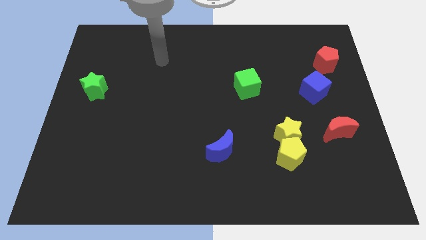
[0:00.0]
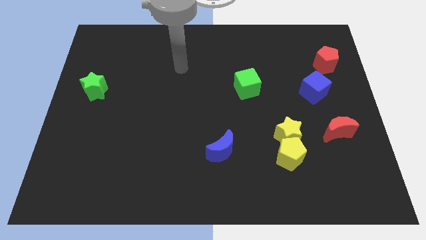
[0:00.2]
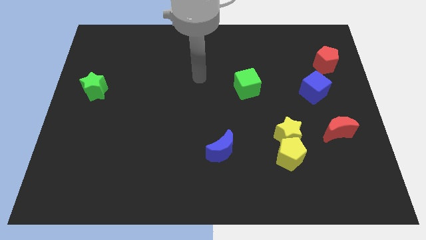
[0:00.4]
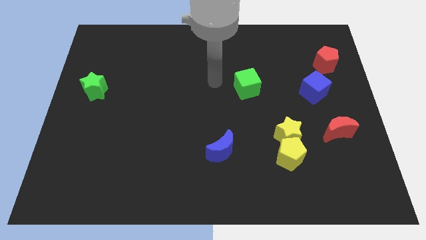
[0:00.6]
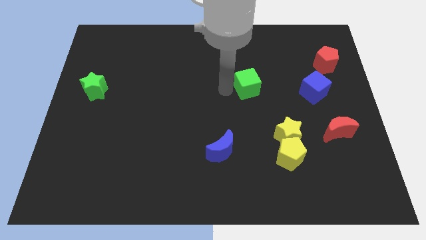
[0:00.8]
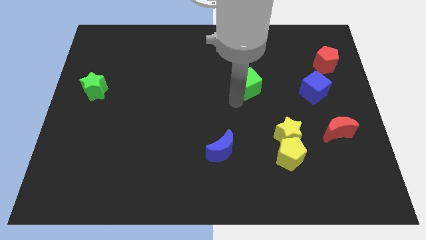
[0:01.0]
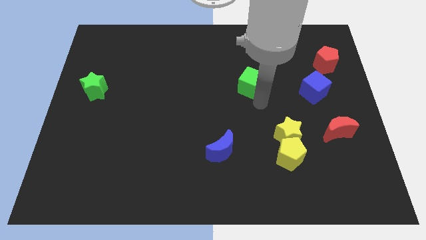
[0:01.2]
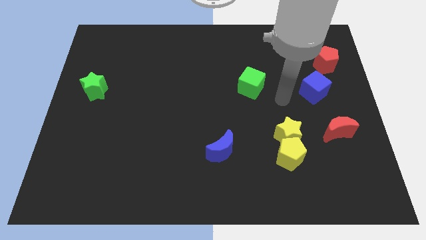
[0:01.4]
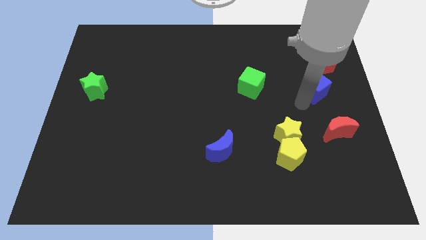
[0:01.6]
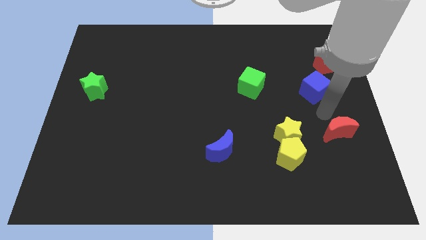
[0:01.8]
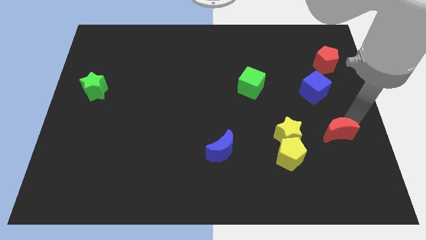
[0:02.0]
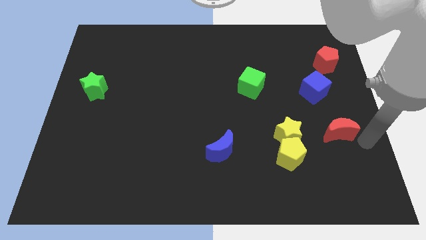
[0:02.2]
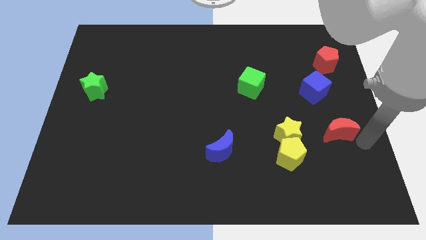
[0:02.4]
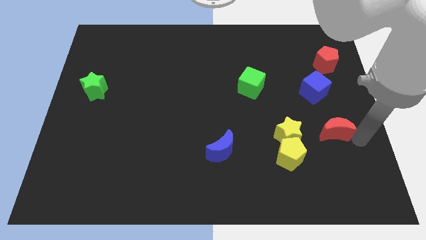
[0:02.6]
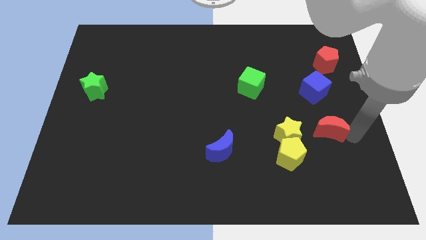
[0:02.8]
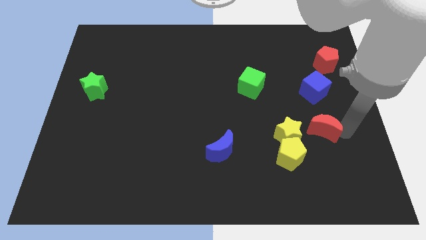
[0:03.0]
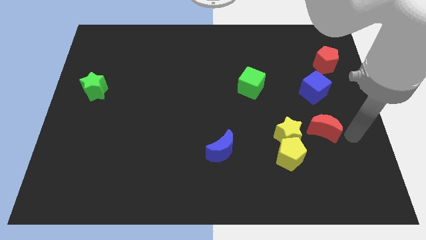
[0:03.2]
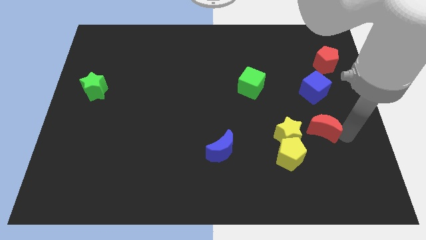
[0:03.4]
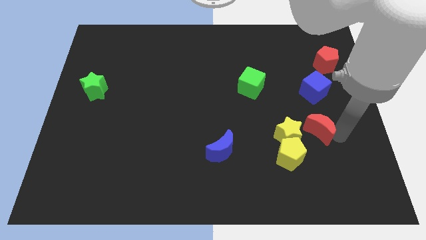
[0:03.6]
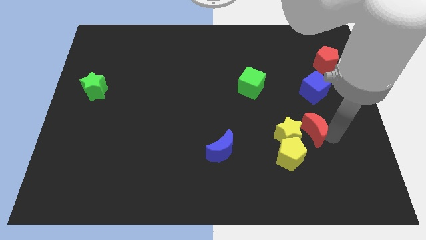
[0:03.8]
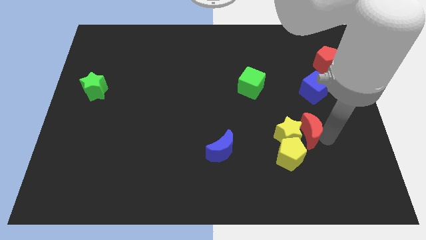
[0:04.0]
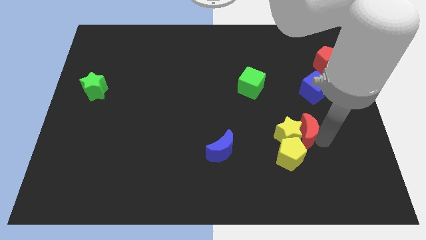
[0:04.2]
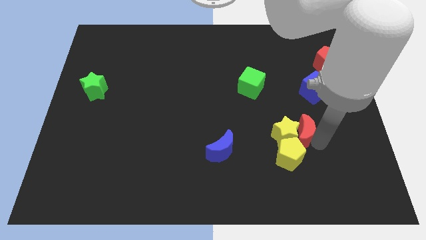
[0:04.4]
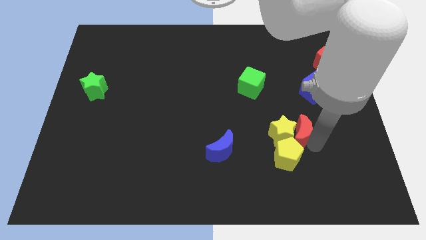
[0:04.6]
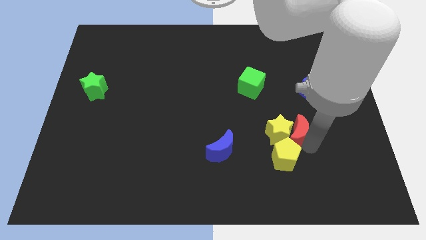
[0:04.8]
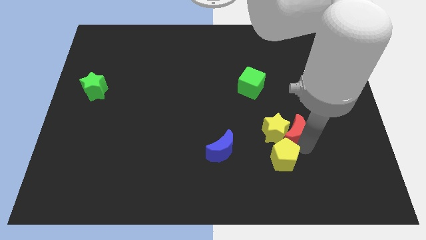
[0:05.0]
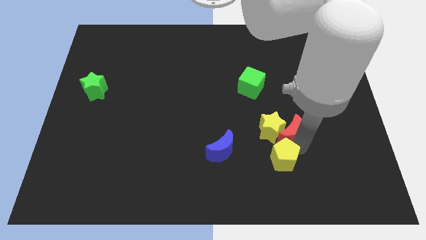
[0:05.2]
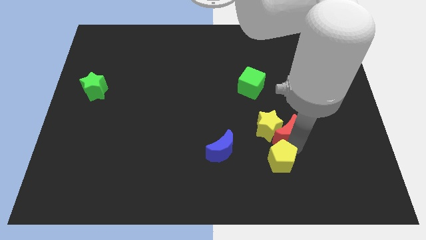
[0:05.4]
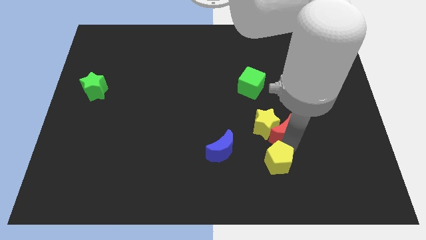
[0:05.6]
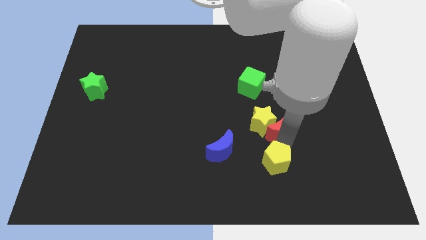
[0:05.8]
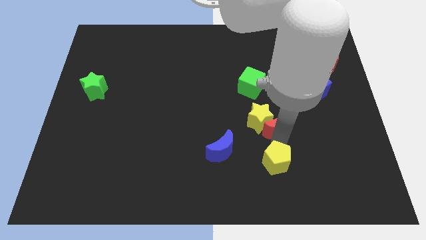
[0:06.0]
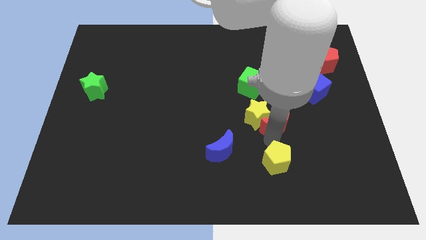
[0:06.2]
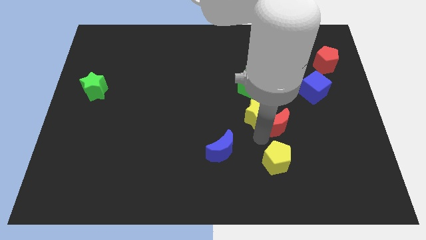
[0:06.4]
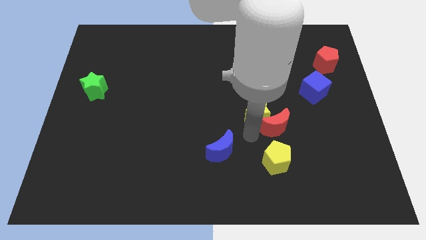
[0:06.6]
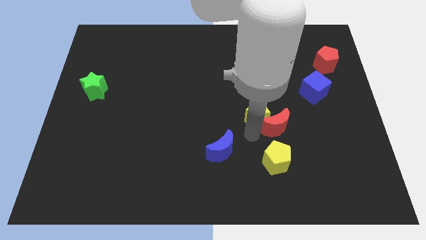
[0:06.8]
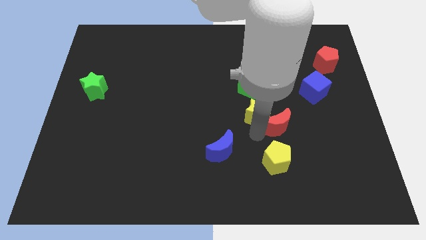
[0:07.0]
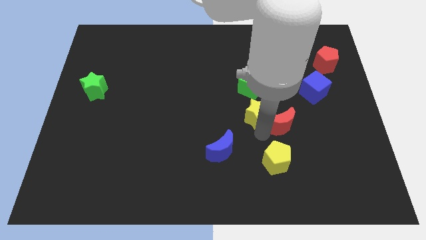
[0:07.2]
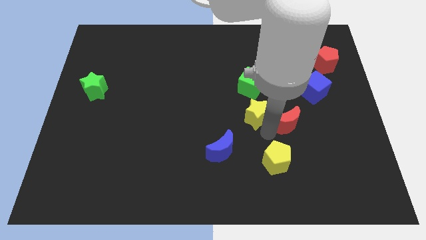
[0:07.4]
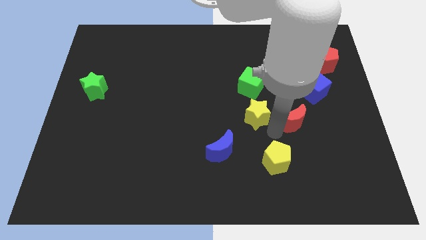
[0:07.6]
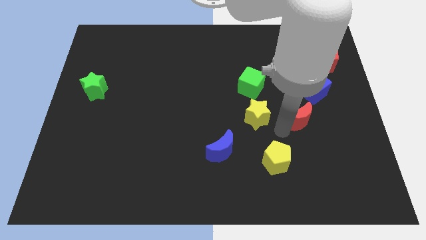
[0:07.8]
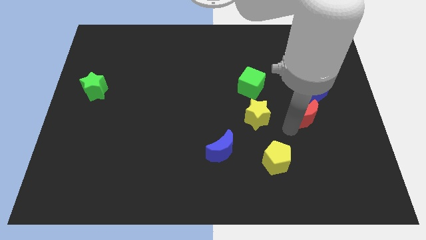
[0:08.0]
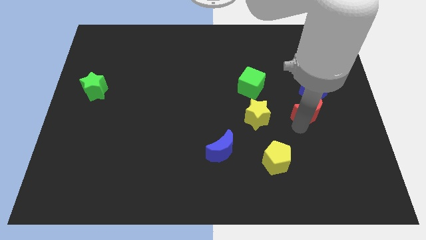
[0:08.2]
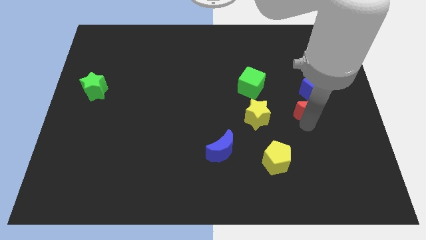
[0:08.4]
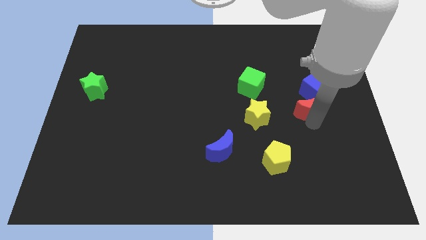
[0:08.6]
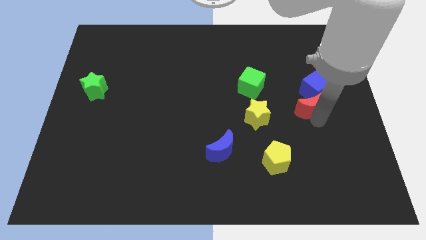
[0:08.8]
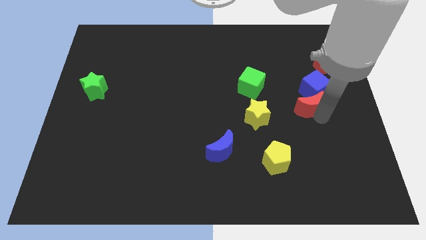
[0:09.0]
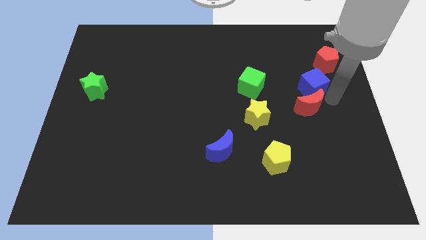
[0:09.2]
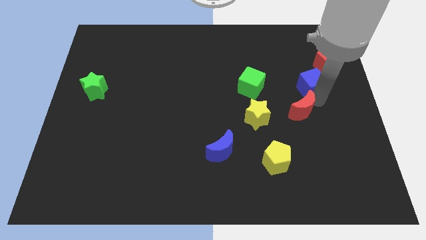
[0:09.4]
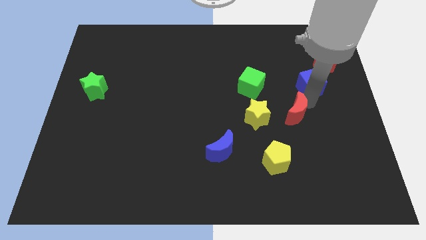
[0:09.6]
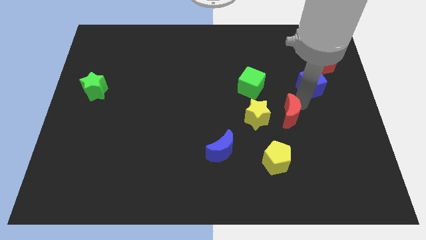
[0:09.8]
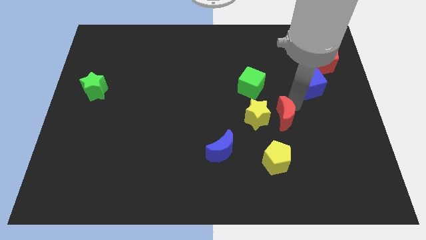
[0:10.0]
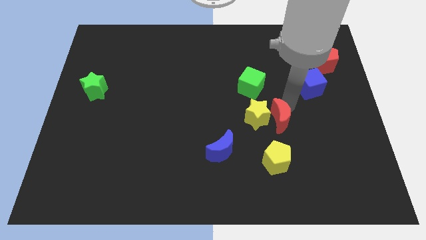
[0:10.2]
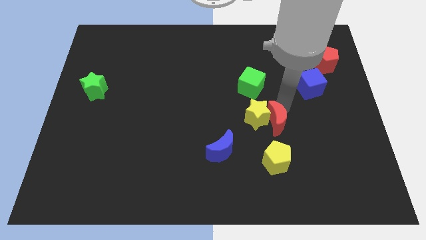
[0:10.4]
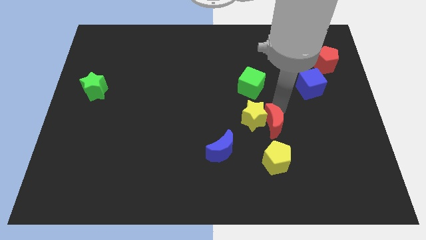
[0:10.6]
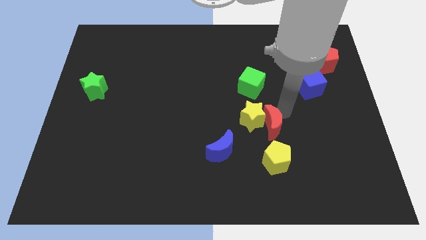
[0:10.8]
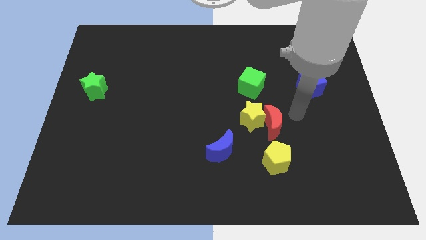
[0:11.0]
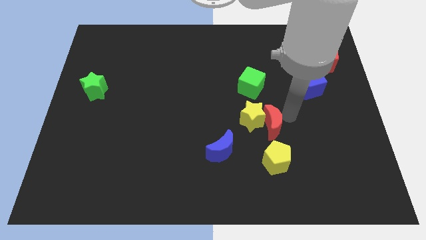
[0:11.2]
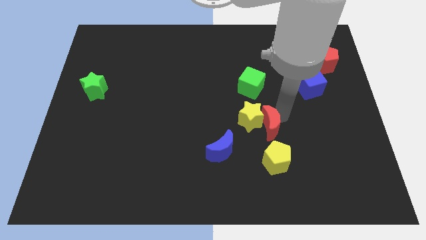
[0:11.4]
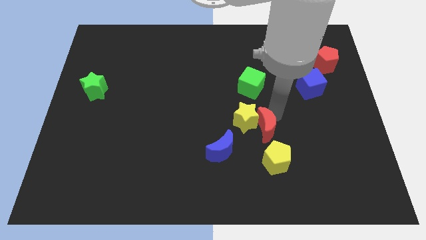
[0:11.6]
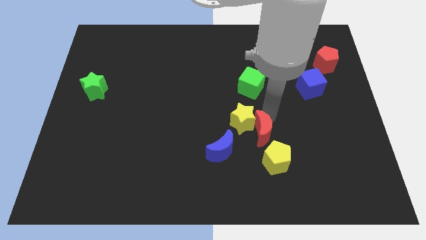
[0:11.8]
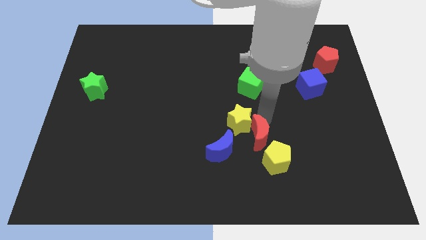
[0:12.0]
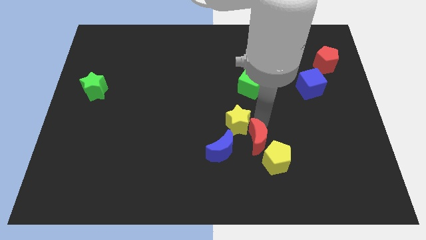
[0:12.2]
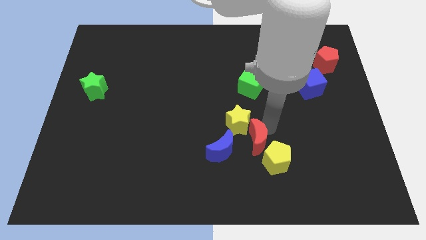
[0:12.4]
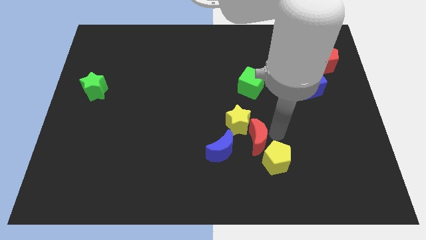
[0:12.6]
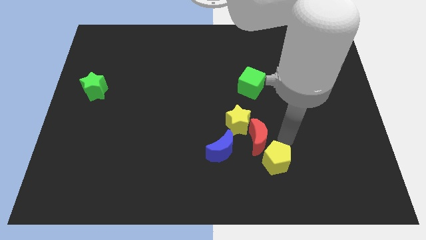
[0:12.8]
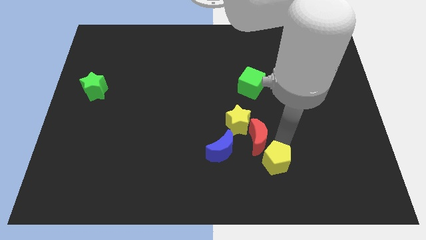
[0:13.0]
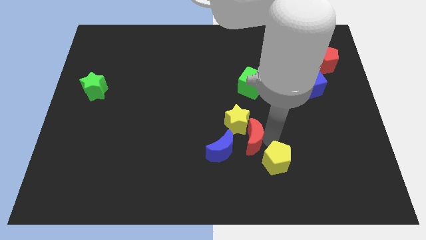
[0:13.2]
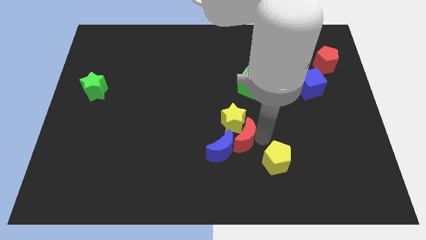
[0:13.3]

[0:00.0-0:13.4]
push the red moon next to the blue moon
